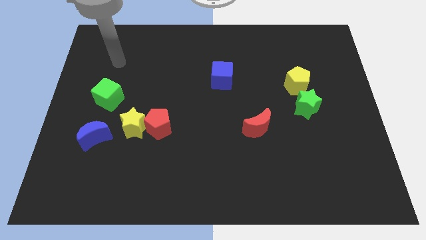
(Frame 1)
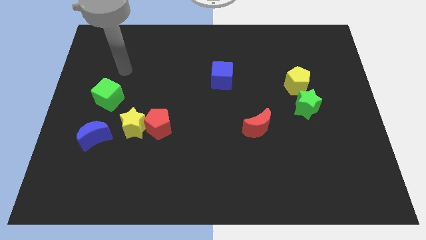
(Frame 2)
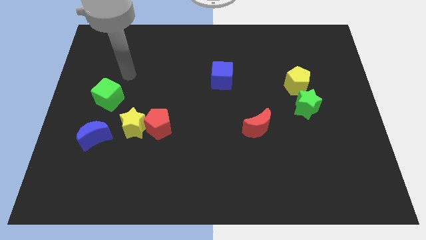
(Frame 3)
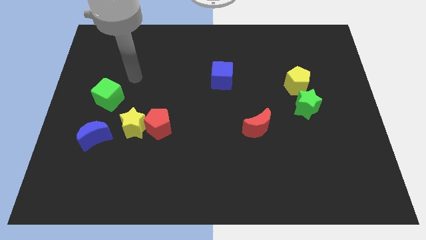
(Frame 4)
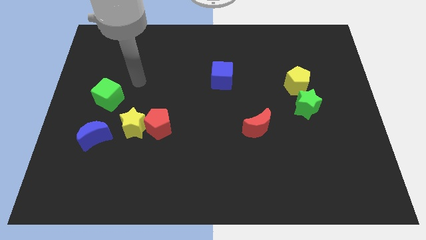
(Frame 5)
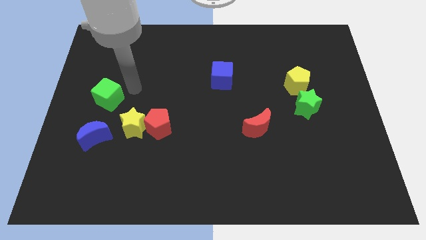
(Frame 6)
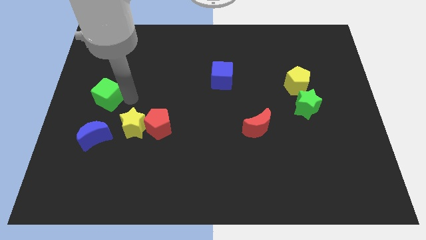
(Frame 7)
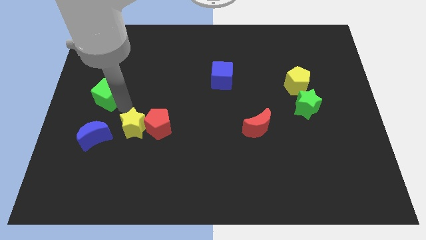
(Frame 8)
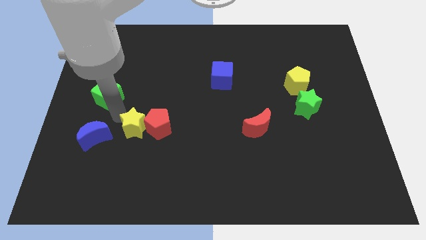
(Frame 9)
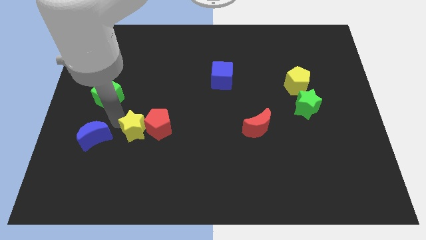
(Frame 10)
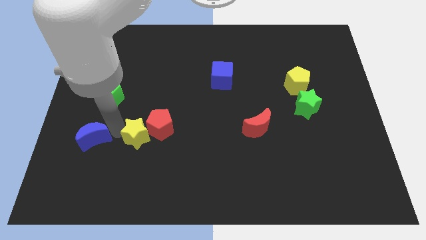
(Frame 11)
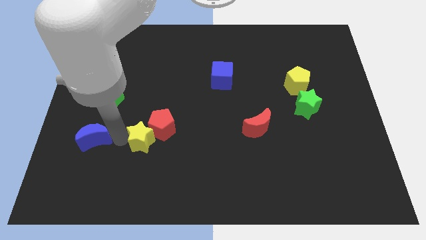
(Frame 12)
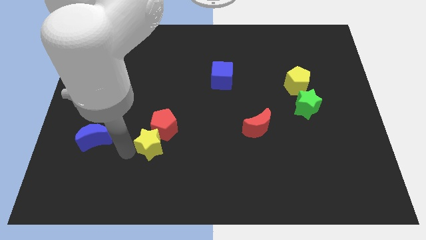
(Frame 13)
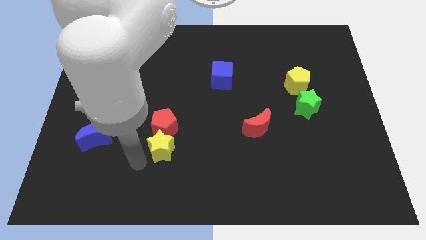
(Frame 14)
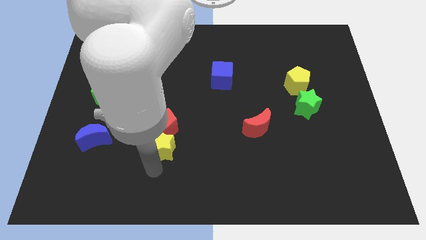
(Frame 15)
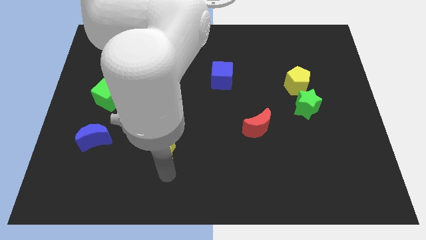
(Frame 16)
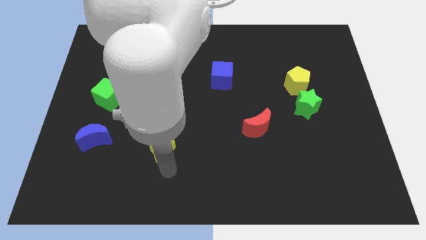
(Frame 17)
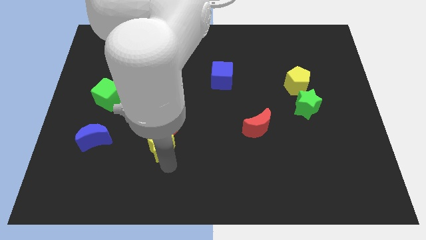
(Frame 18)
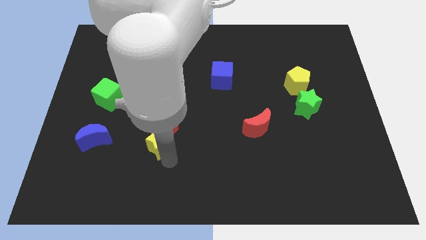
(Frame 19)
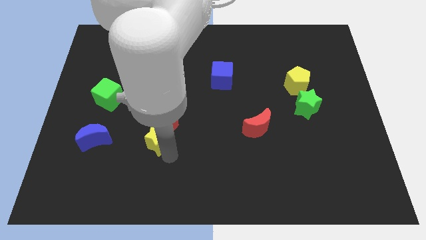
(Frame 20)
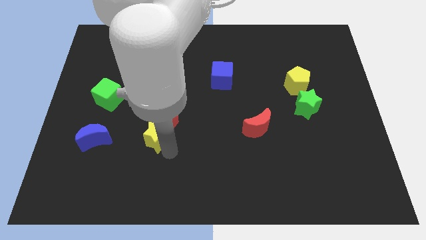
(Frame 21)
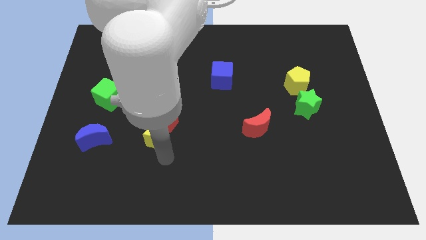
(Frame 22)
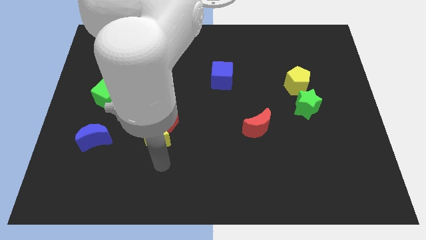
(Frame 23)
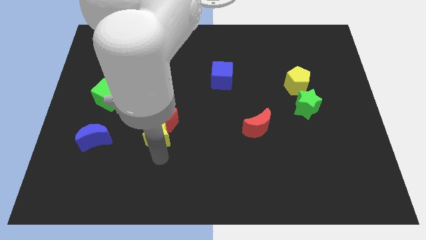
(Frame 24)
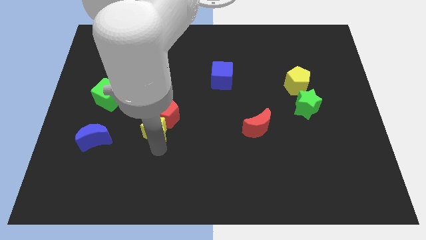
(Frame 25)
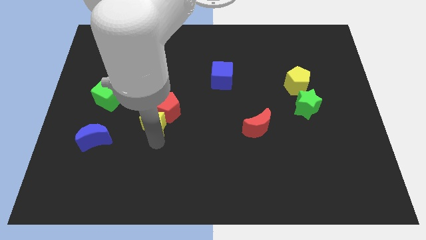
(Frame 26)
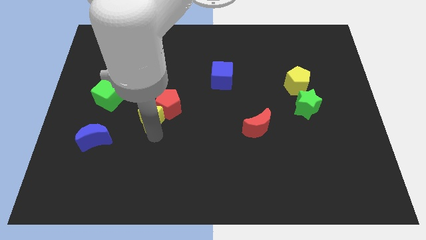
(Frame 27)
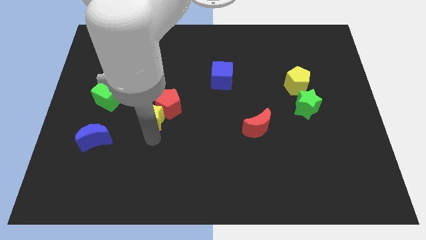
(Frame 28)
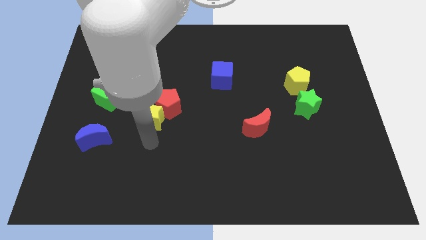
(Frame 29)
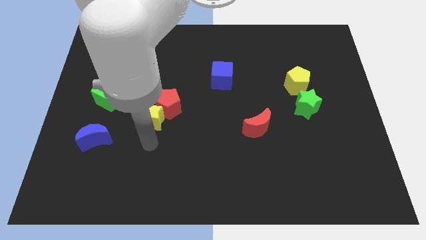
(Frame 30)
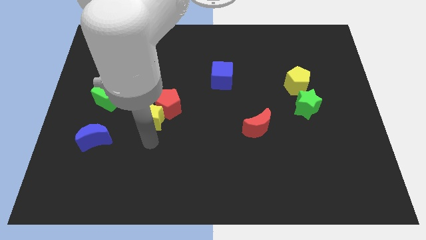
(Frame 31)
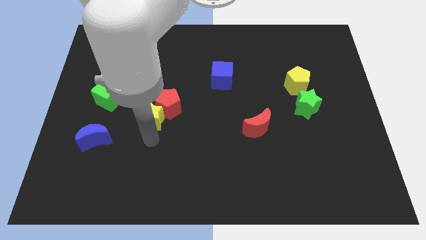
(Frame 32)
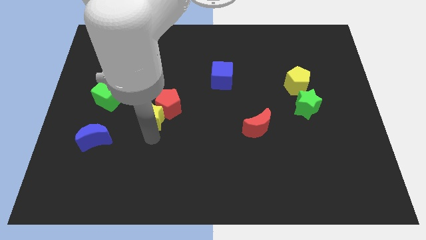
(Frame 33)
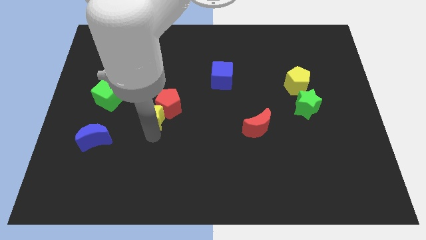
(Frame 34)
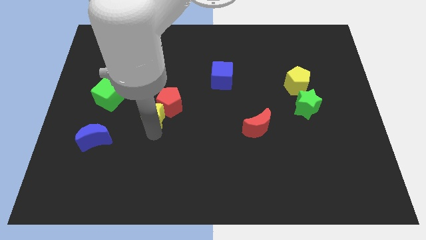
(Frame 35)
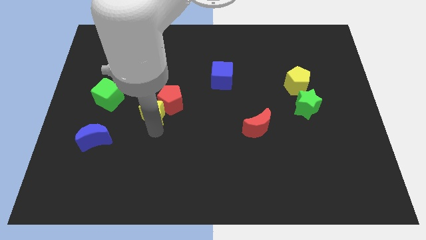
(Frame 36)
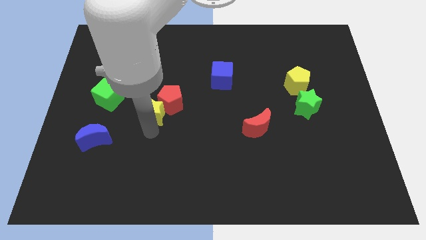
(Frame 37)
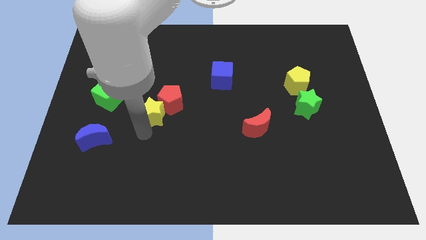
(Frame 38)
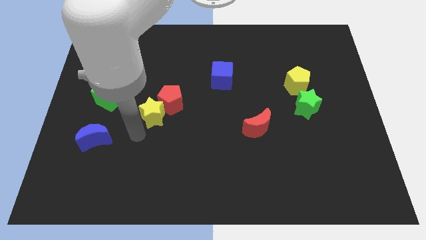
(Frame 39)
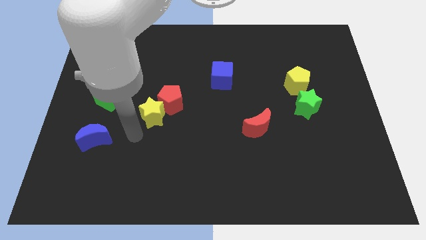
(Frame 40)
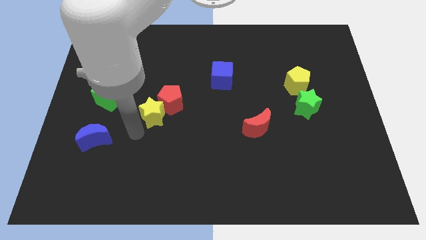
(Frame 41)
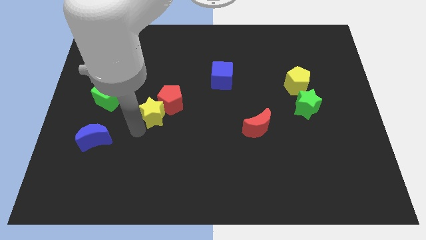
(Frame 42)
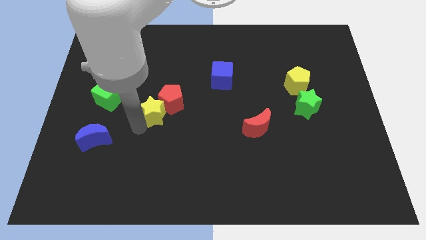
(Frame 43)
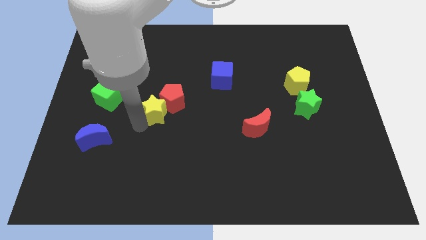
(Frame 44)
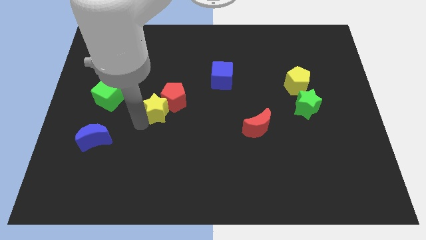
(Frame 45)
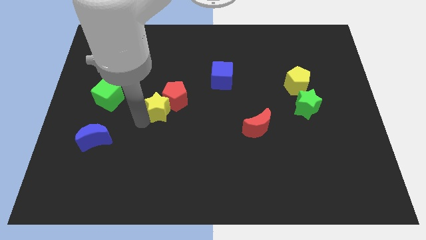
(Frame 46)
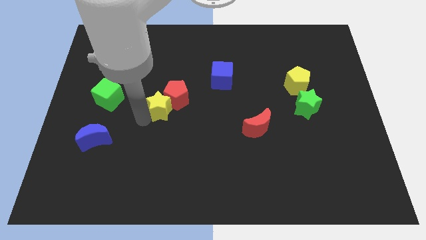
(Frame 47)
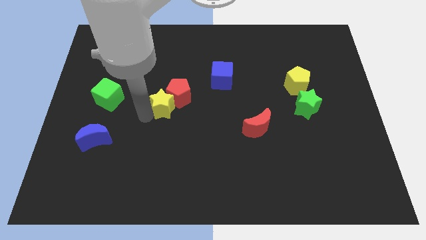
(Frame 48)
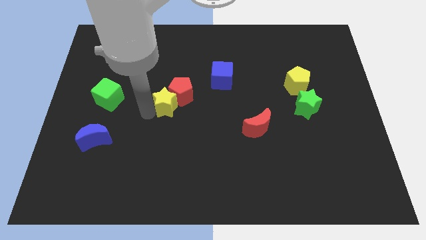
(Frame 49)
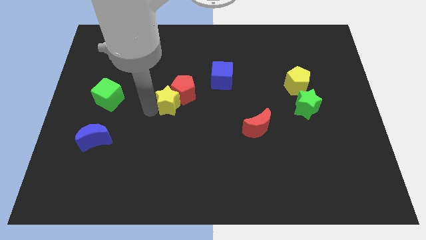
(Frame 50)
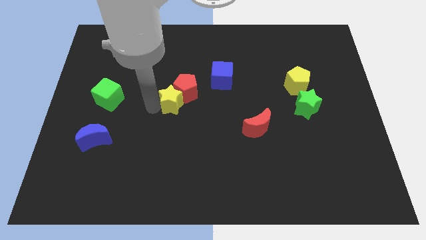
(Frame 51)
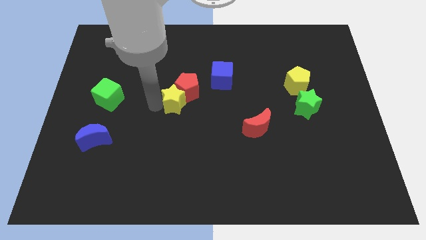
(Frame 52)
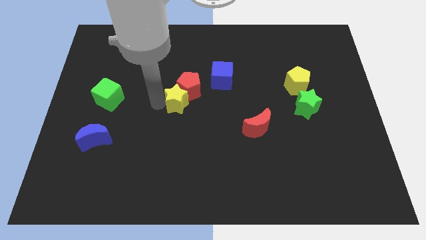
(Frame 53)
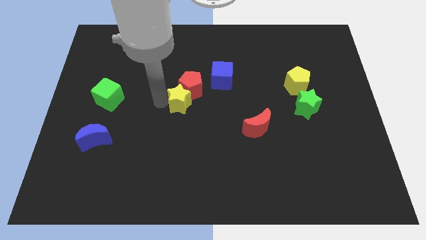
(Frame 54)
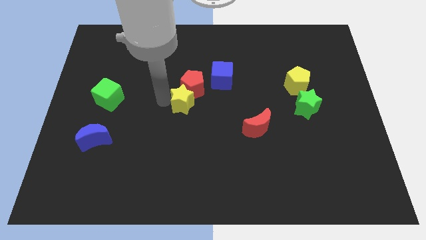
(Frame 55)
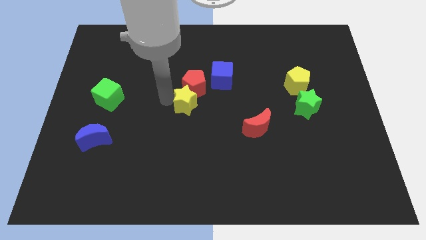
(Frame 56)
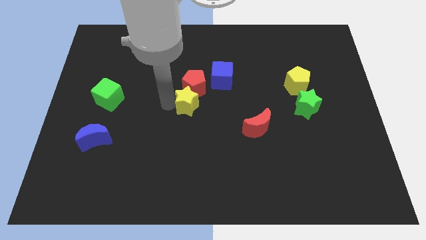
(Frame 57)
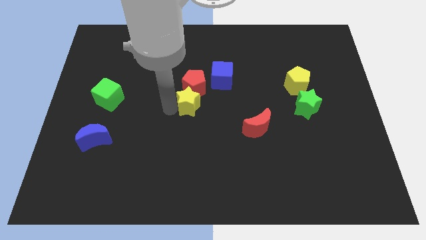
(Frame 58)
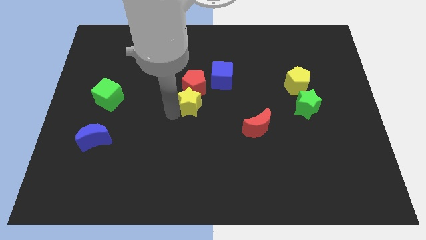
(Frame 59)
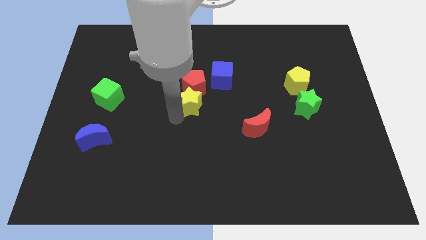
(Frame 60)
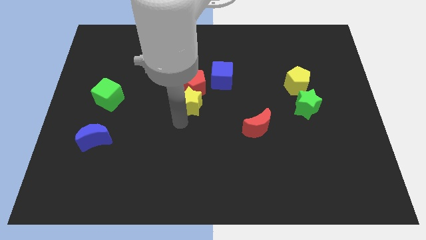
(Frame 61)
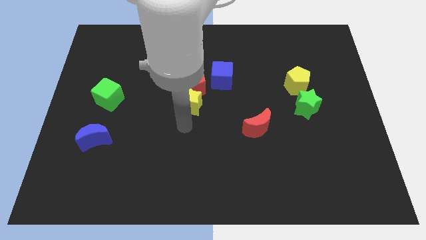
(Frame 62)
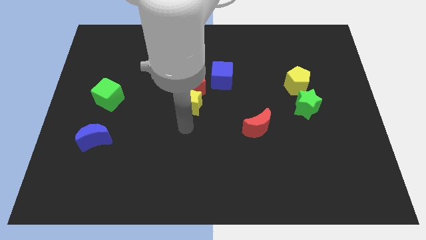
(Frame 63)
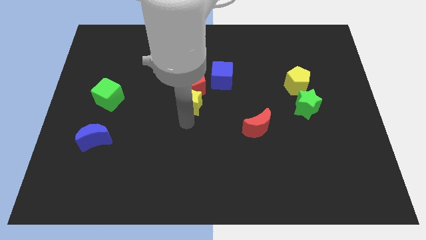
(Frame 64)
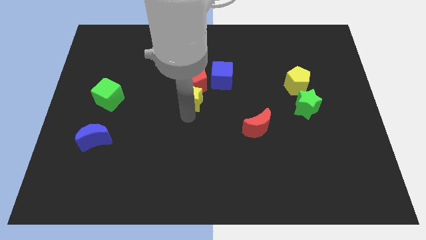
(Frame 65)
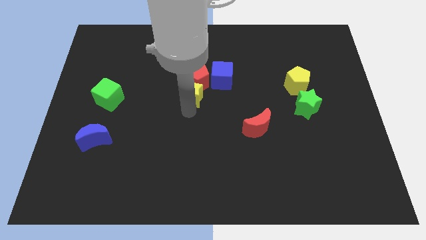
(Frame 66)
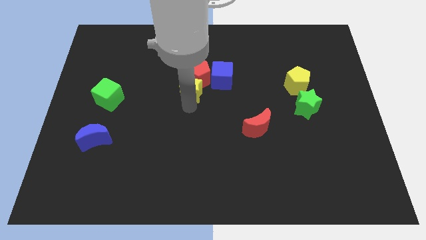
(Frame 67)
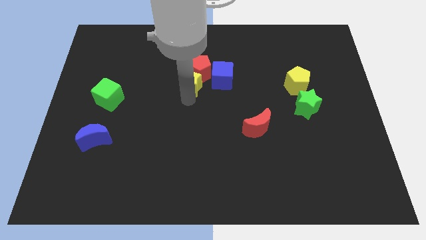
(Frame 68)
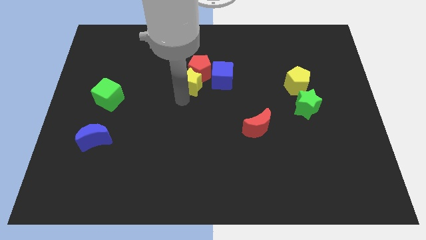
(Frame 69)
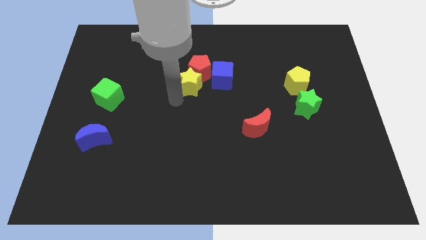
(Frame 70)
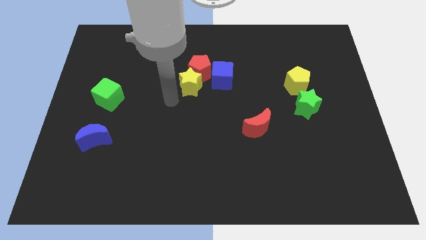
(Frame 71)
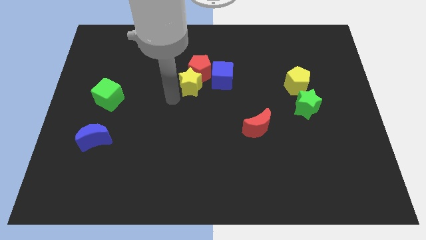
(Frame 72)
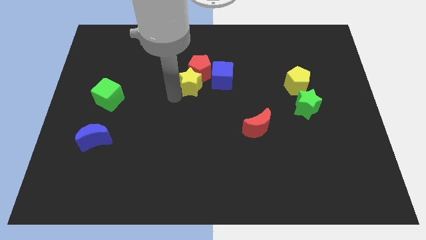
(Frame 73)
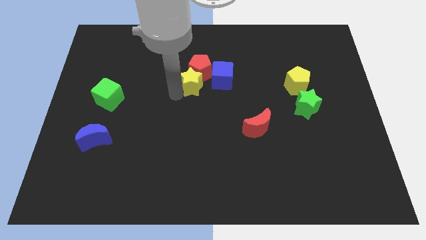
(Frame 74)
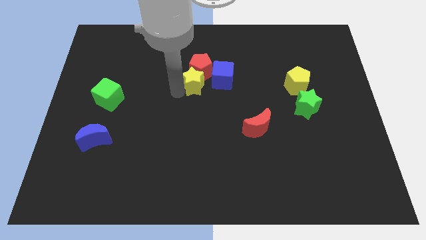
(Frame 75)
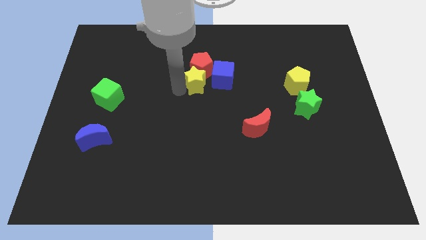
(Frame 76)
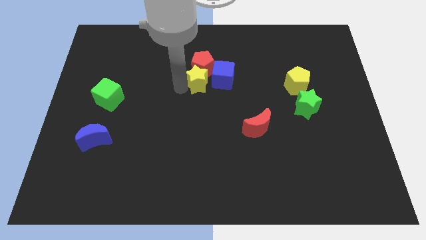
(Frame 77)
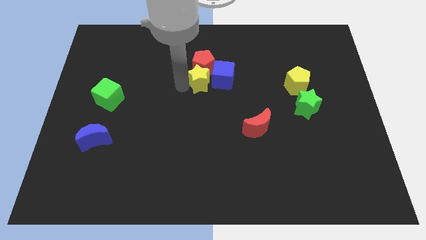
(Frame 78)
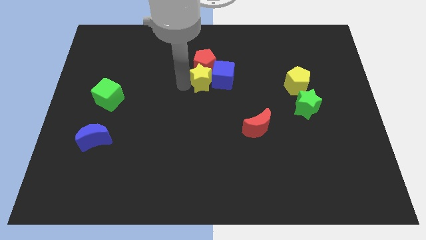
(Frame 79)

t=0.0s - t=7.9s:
slide the yellow star upwards and to the right

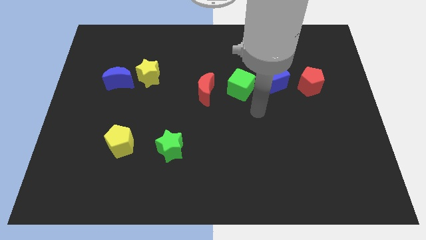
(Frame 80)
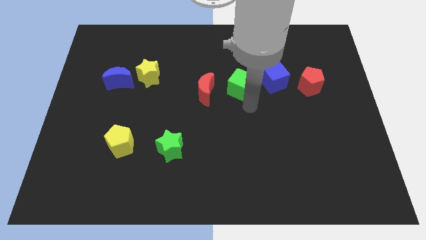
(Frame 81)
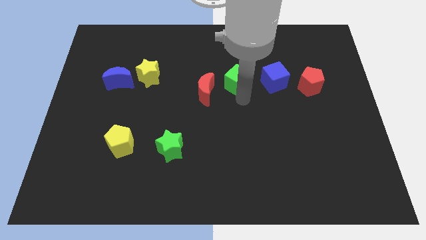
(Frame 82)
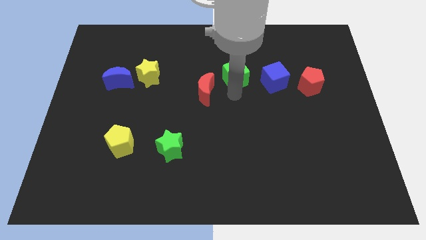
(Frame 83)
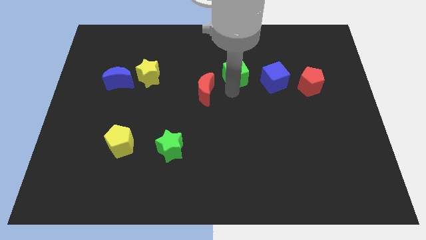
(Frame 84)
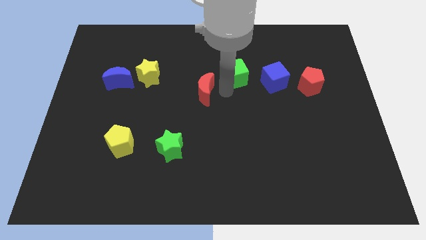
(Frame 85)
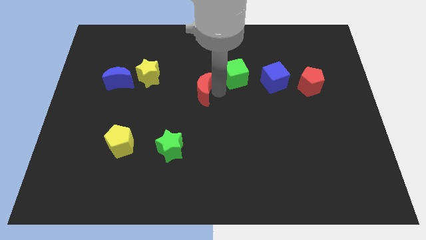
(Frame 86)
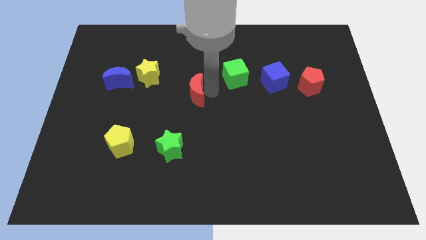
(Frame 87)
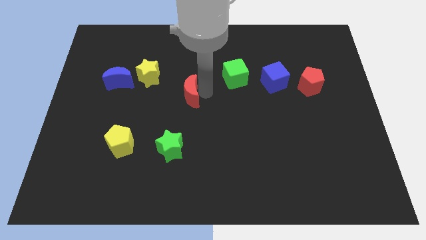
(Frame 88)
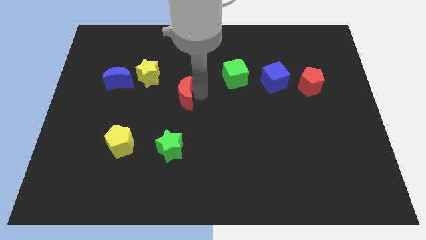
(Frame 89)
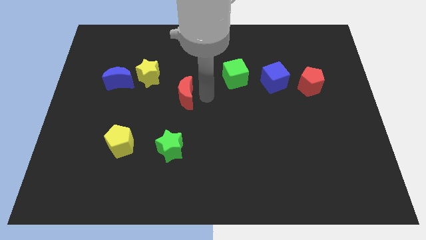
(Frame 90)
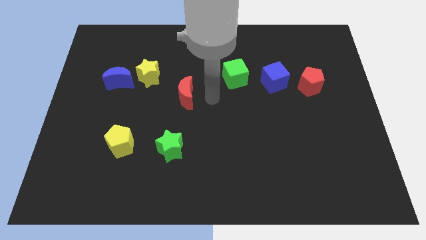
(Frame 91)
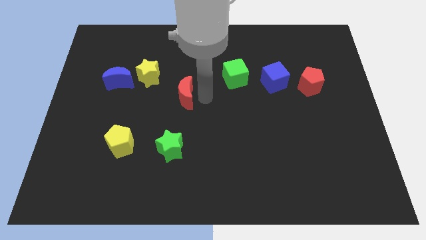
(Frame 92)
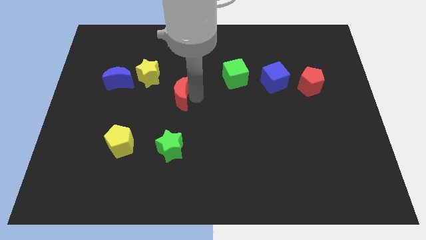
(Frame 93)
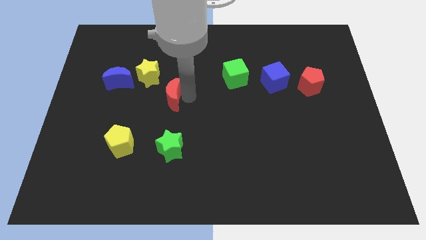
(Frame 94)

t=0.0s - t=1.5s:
push the red moon somewhat to the left
